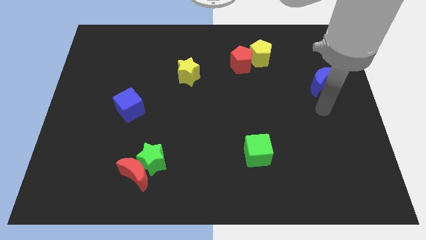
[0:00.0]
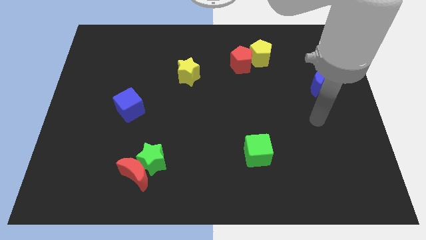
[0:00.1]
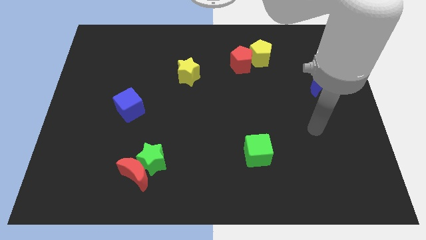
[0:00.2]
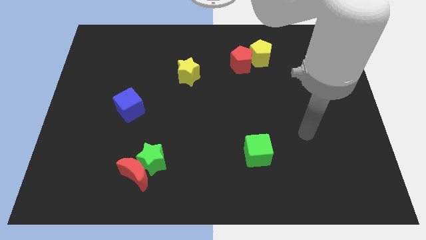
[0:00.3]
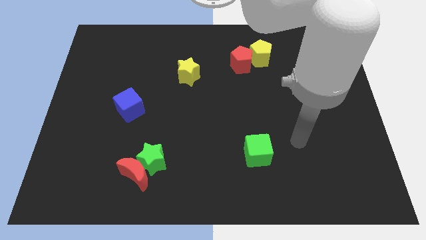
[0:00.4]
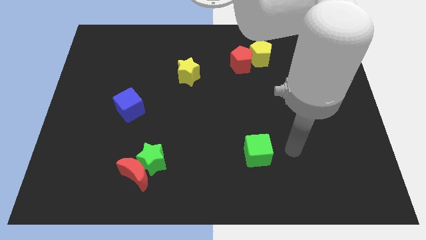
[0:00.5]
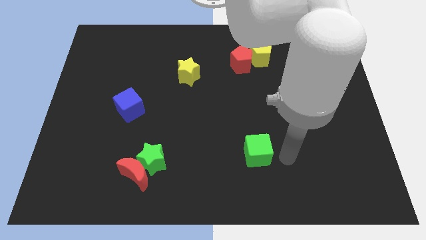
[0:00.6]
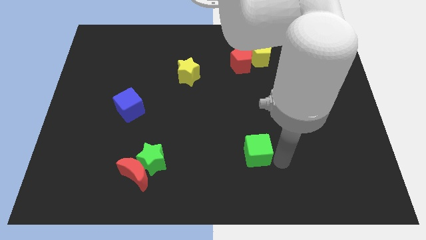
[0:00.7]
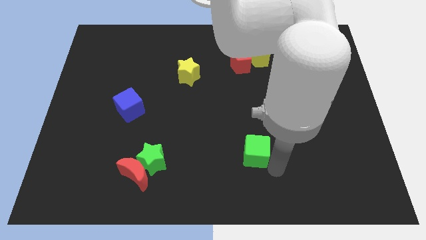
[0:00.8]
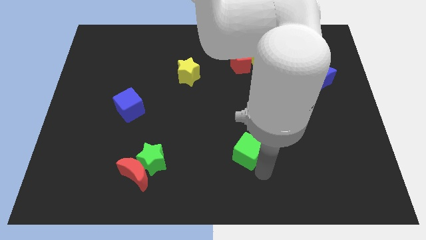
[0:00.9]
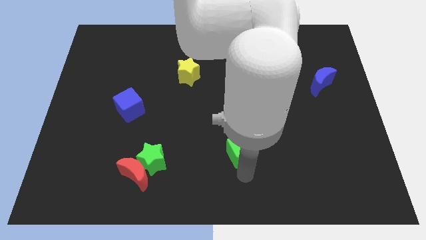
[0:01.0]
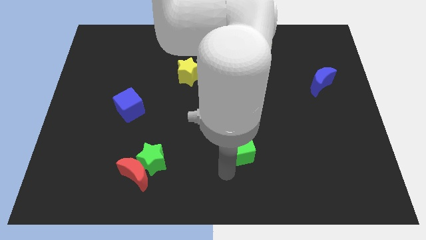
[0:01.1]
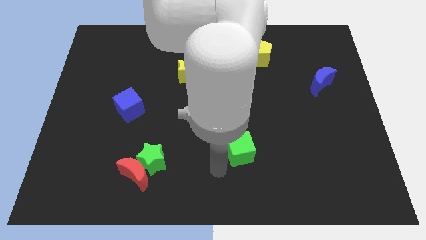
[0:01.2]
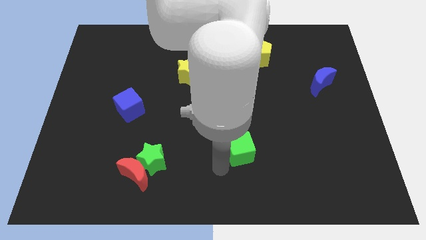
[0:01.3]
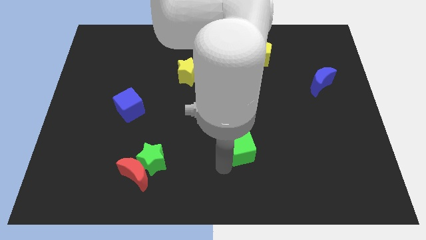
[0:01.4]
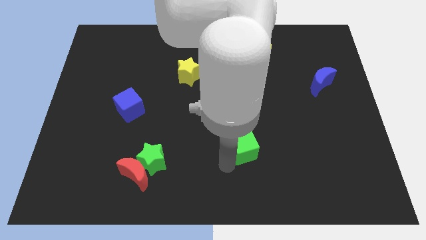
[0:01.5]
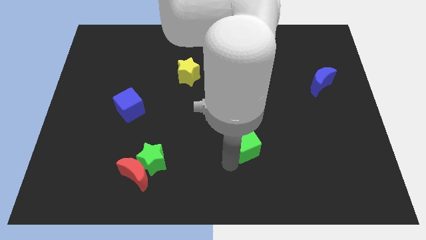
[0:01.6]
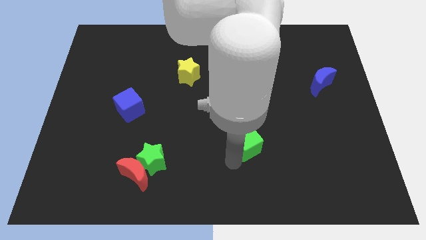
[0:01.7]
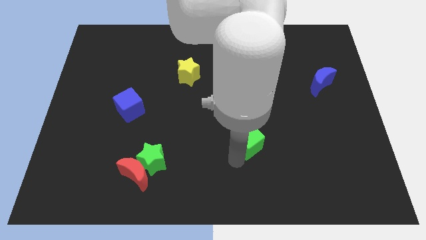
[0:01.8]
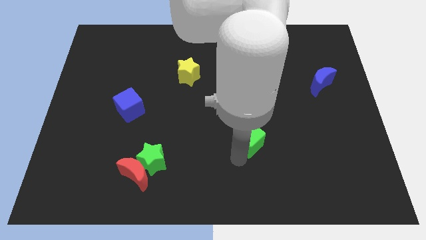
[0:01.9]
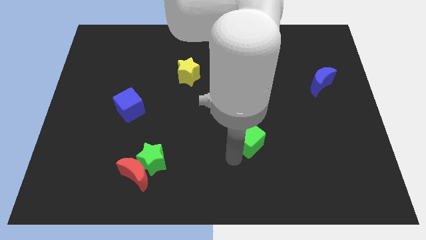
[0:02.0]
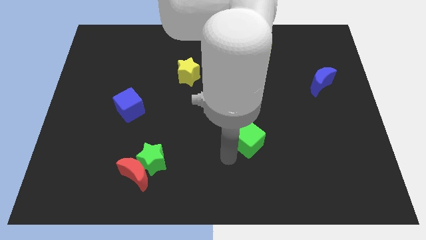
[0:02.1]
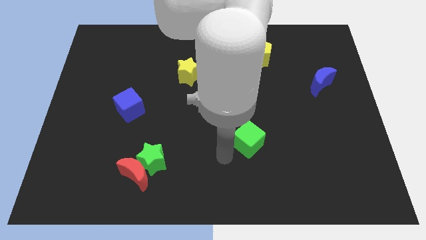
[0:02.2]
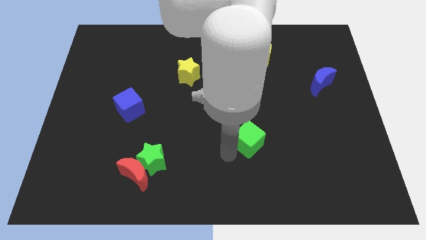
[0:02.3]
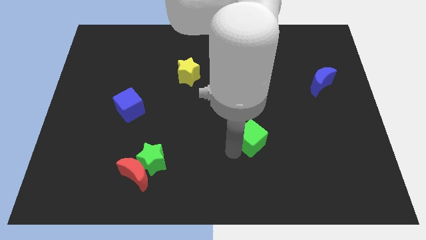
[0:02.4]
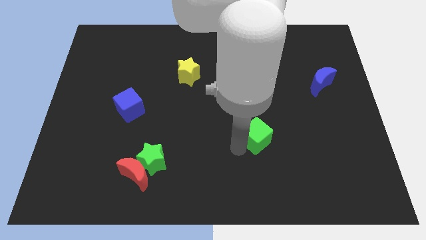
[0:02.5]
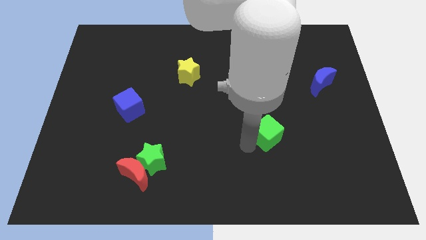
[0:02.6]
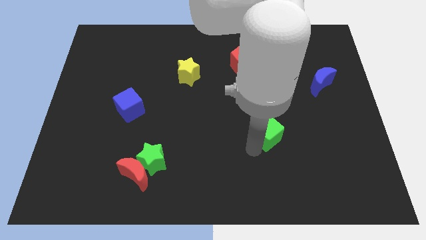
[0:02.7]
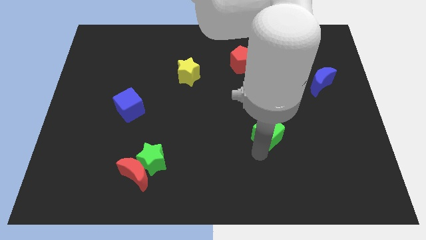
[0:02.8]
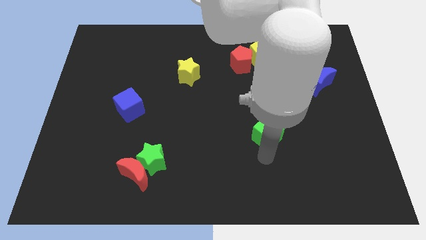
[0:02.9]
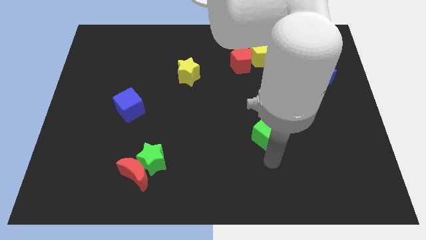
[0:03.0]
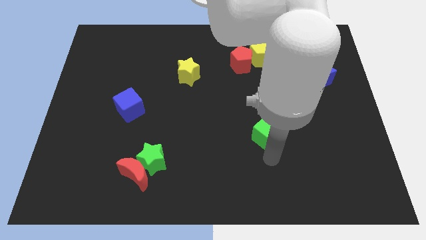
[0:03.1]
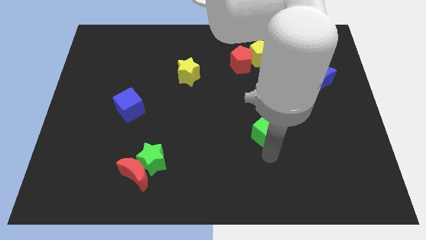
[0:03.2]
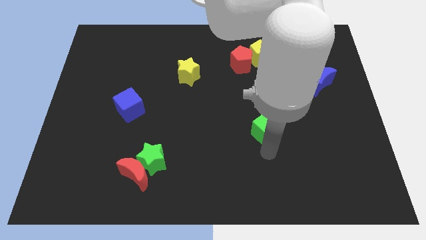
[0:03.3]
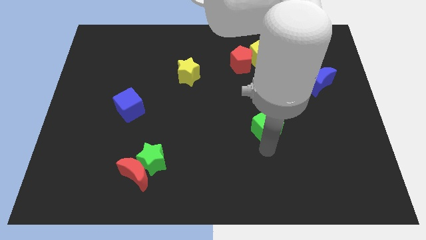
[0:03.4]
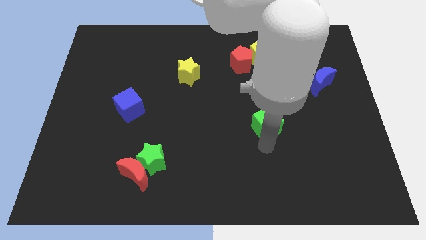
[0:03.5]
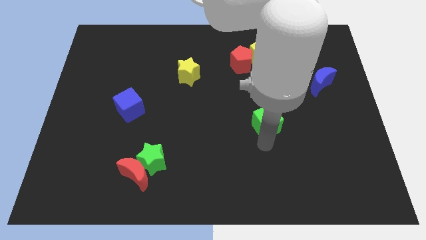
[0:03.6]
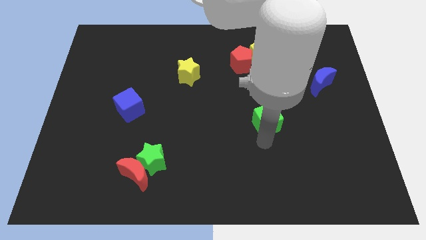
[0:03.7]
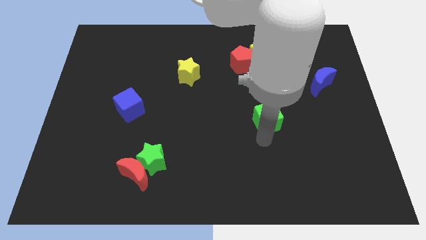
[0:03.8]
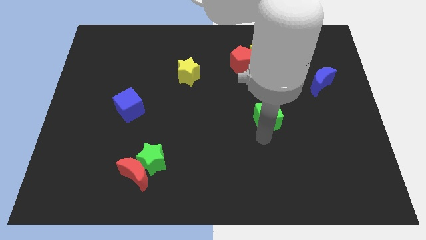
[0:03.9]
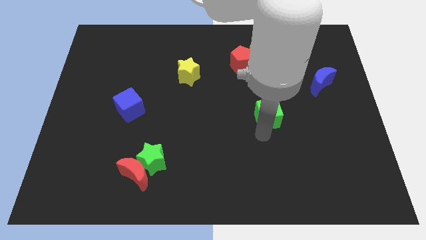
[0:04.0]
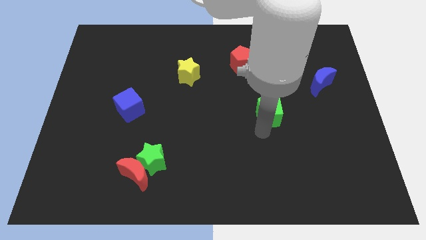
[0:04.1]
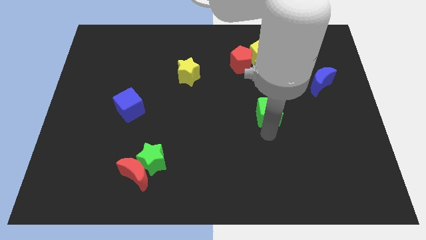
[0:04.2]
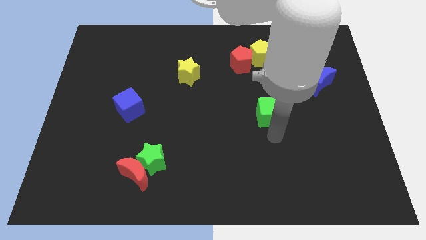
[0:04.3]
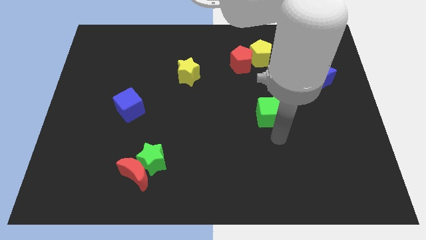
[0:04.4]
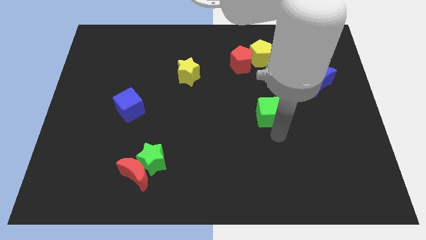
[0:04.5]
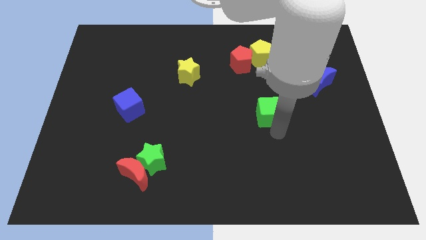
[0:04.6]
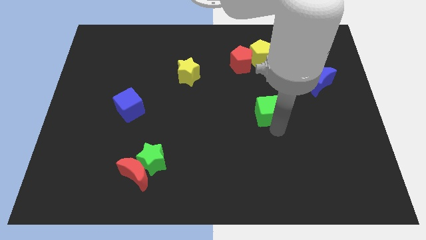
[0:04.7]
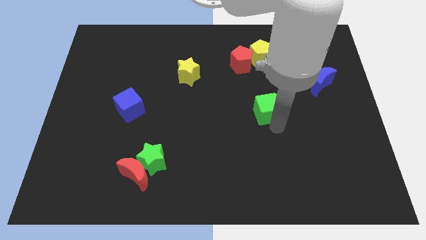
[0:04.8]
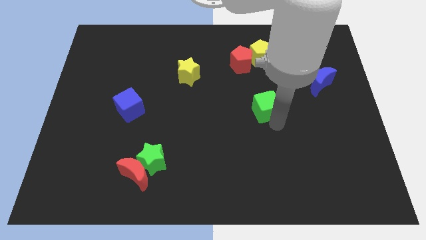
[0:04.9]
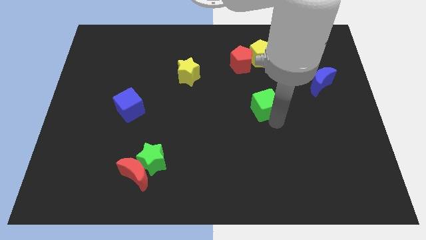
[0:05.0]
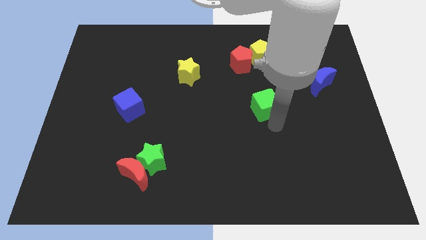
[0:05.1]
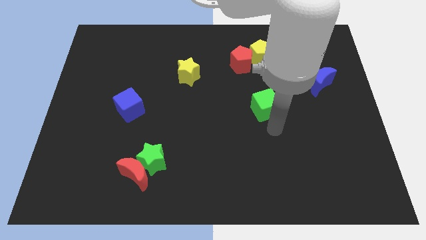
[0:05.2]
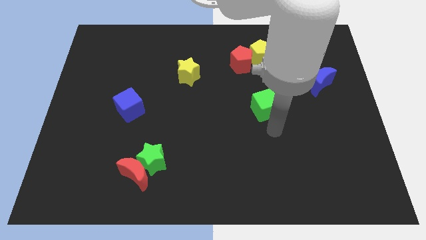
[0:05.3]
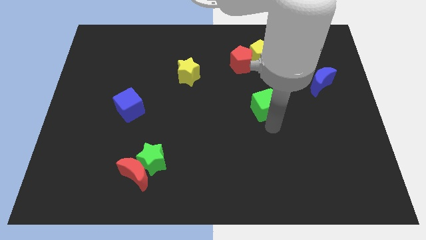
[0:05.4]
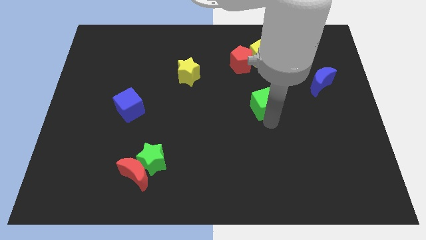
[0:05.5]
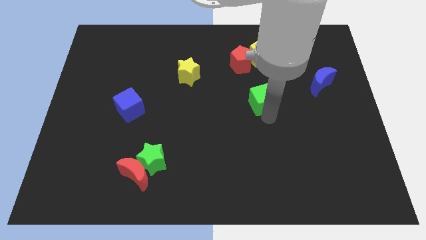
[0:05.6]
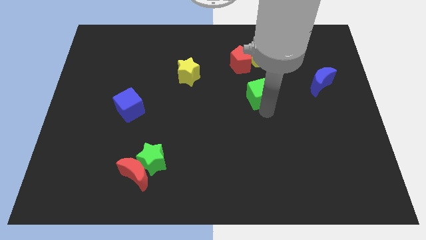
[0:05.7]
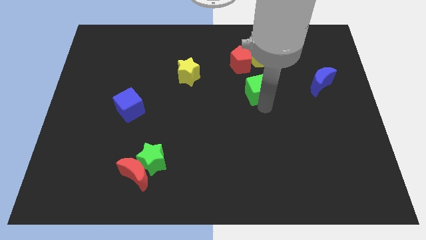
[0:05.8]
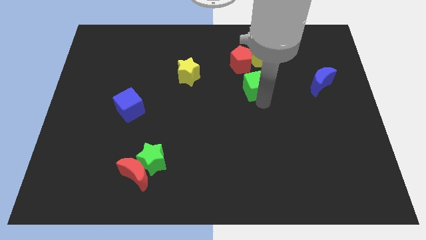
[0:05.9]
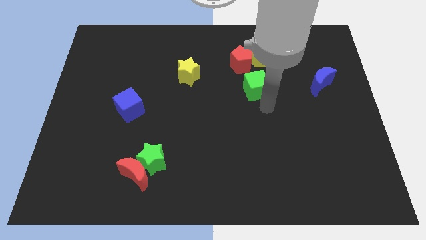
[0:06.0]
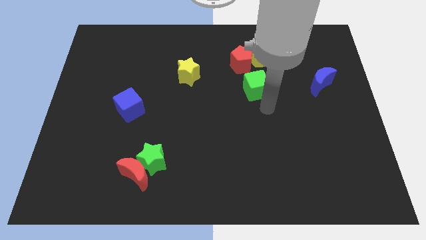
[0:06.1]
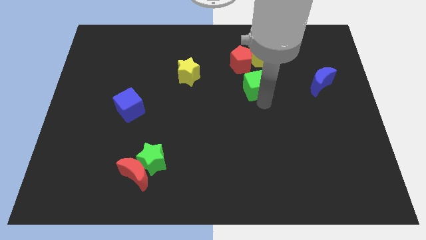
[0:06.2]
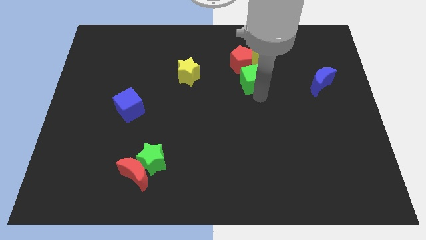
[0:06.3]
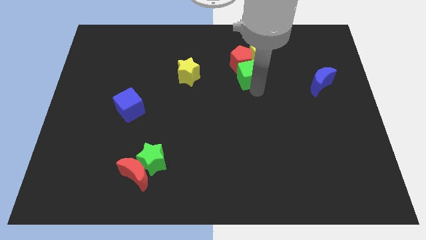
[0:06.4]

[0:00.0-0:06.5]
push the green cube to the red pentagon
